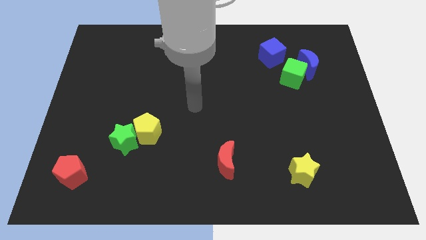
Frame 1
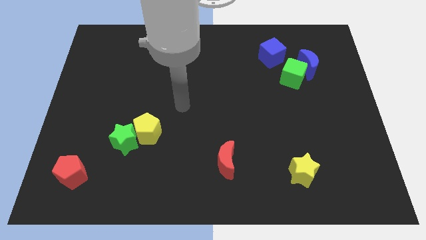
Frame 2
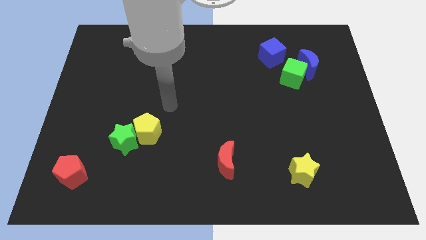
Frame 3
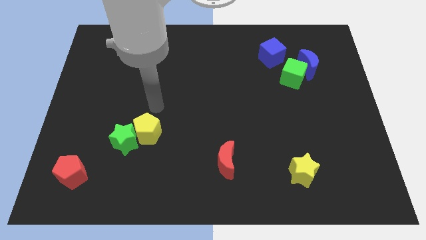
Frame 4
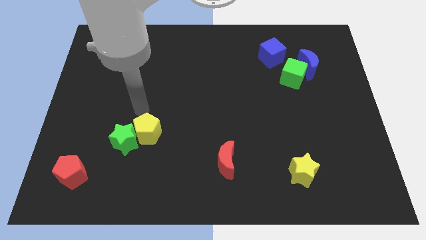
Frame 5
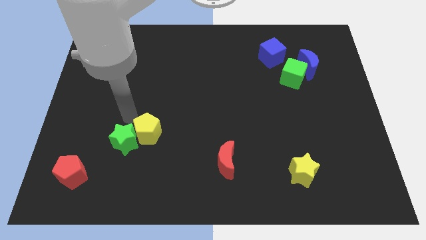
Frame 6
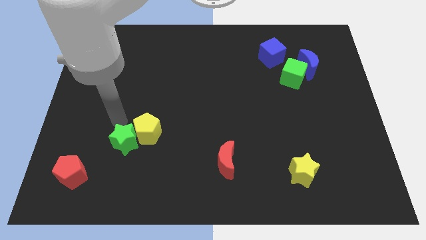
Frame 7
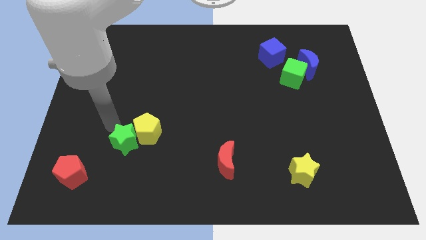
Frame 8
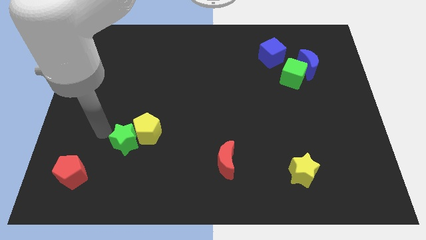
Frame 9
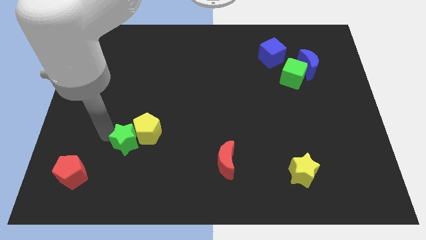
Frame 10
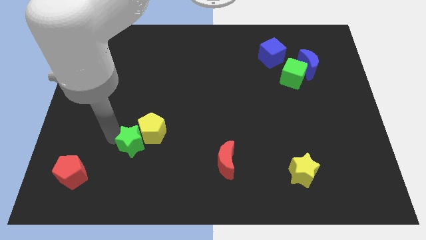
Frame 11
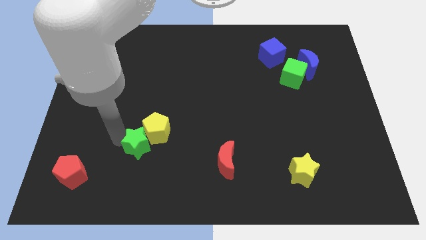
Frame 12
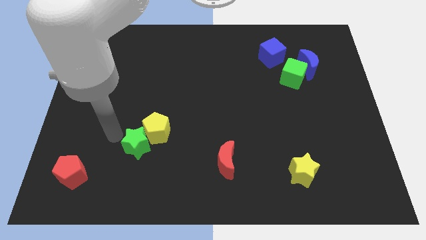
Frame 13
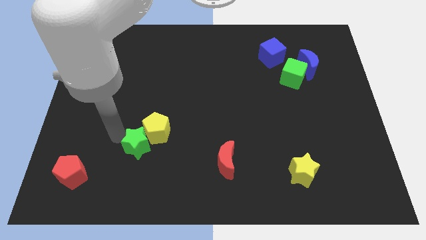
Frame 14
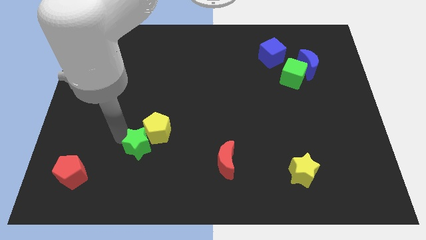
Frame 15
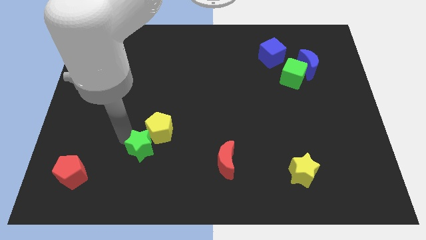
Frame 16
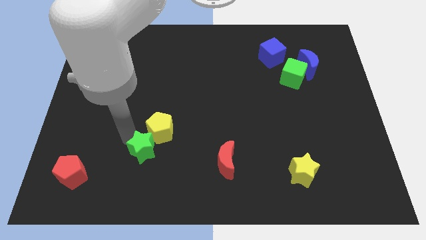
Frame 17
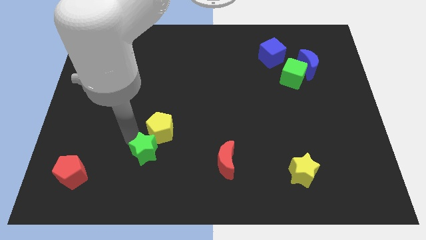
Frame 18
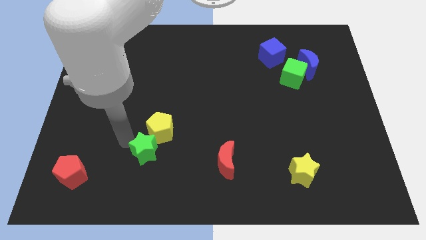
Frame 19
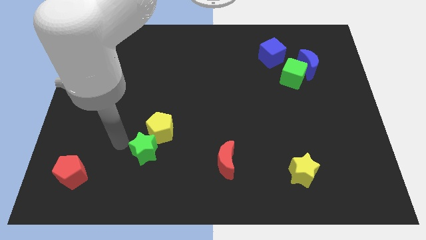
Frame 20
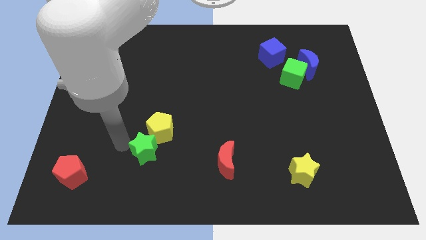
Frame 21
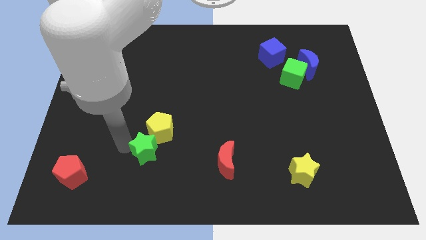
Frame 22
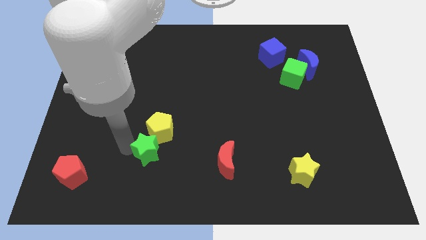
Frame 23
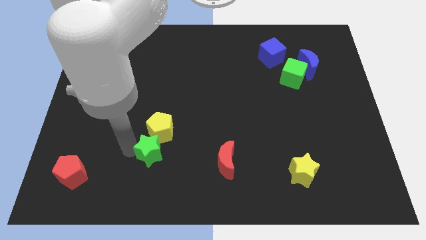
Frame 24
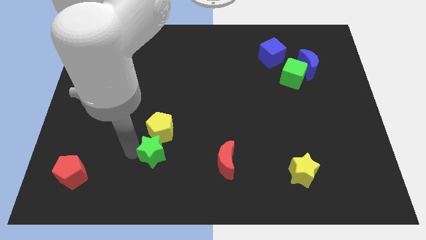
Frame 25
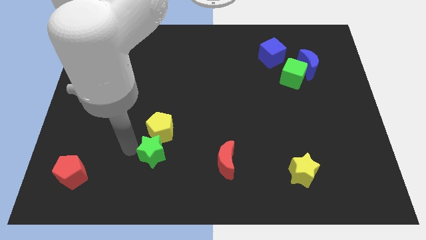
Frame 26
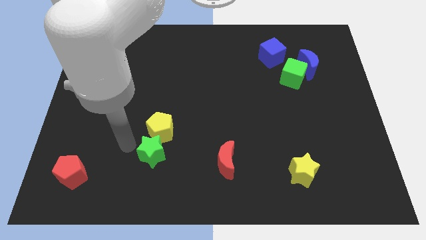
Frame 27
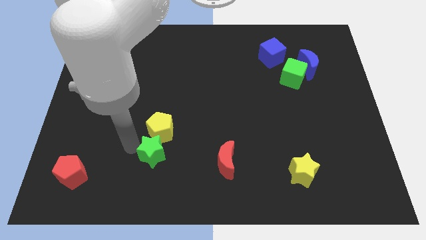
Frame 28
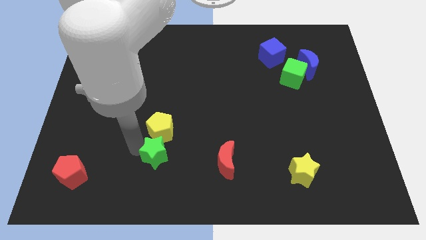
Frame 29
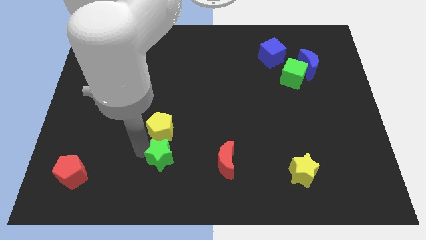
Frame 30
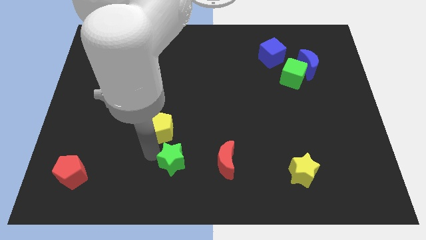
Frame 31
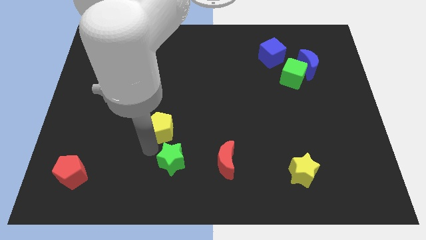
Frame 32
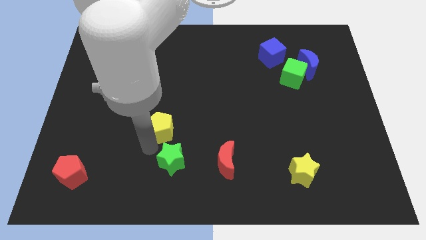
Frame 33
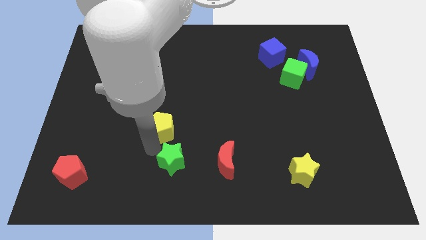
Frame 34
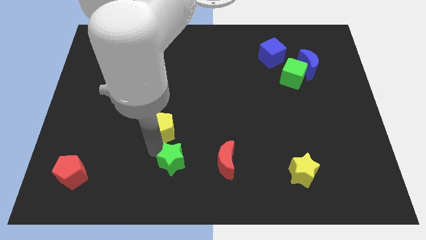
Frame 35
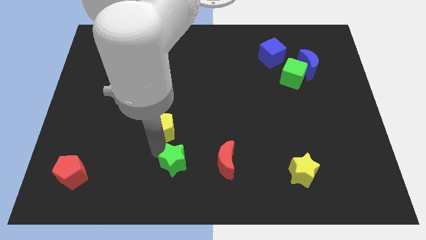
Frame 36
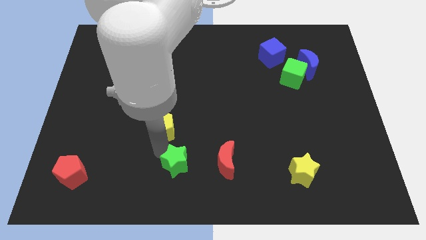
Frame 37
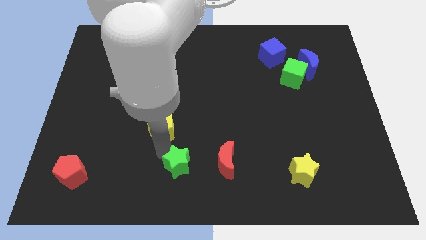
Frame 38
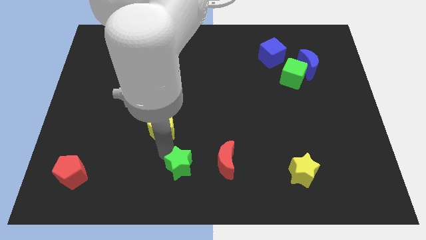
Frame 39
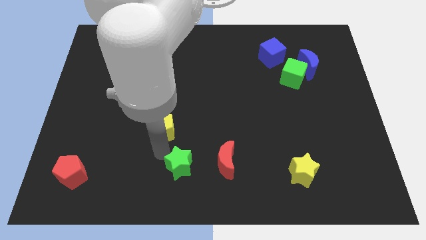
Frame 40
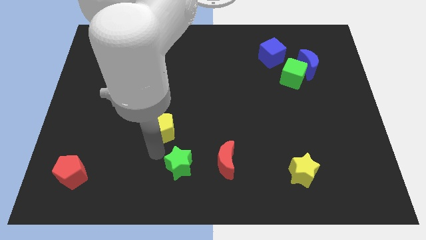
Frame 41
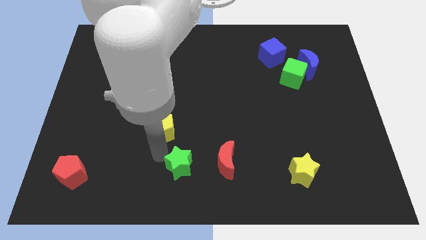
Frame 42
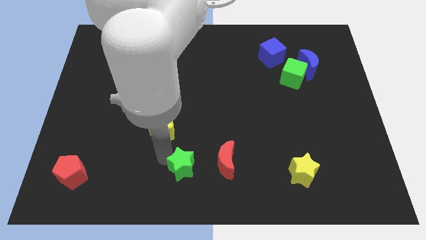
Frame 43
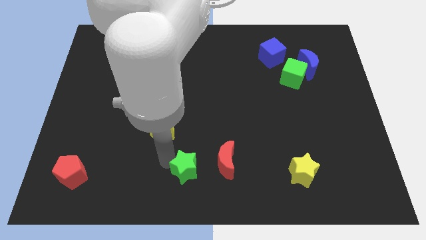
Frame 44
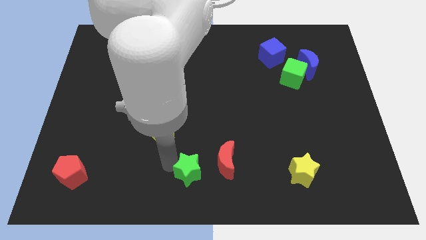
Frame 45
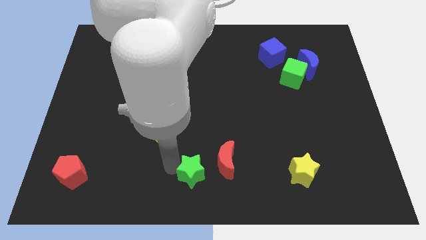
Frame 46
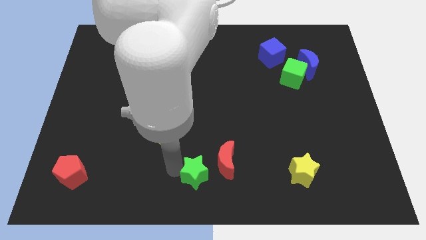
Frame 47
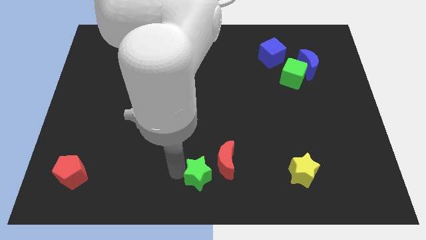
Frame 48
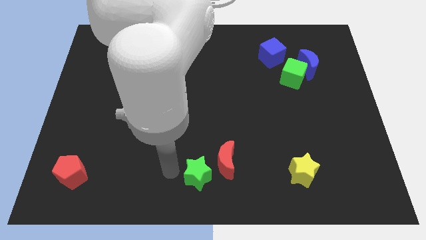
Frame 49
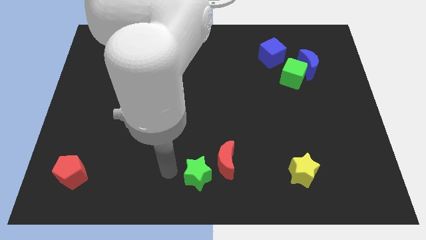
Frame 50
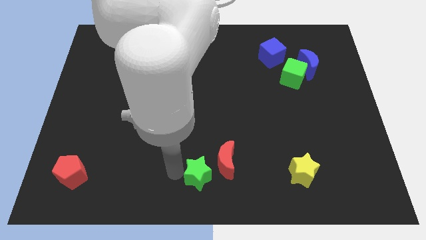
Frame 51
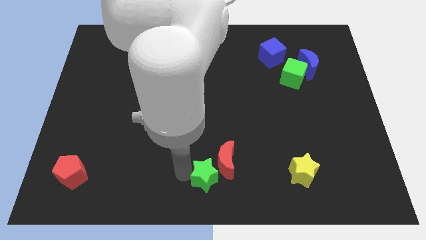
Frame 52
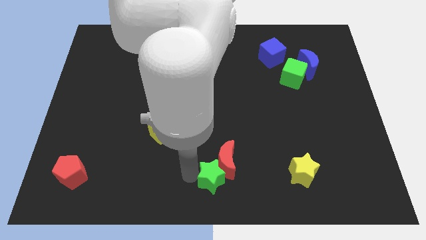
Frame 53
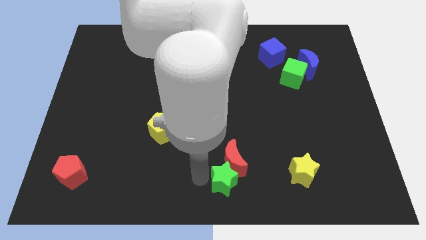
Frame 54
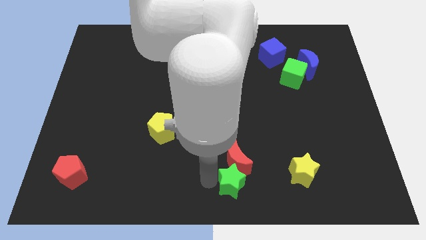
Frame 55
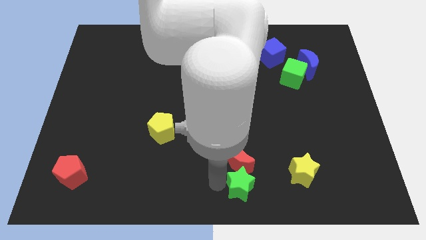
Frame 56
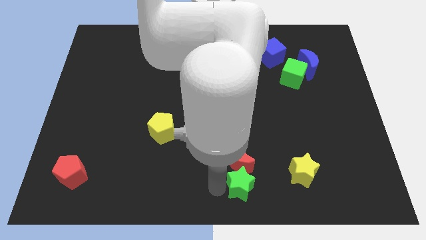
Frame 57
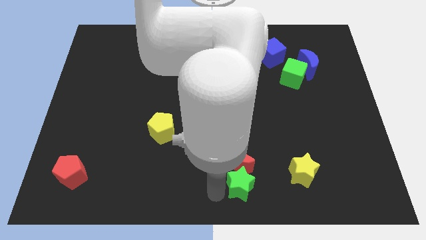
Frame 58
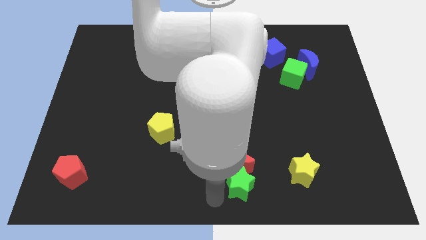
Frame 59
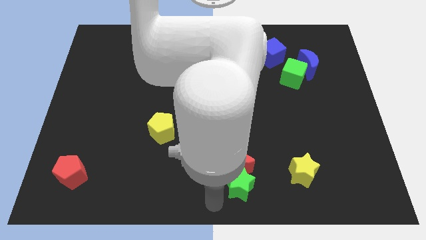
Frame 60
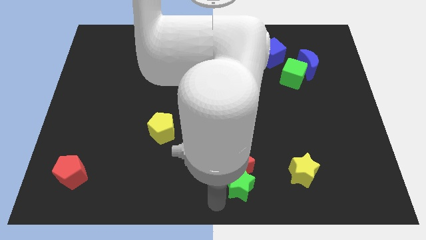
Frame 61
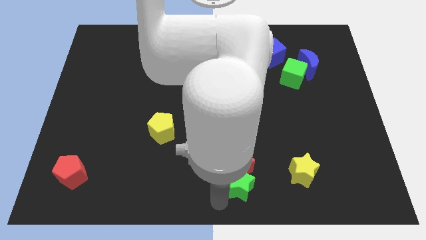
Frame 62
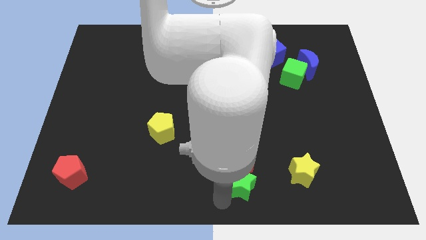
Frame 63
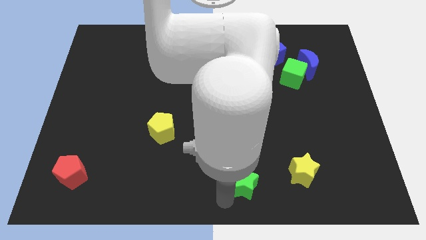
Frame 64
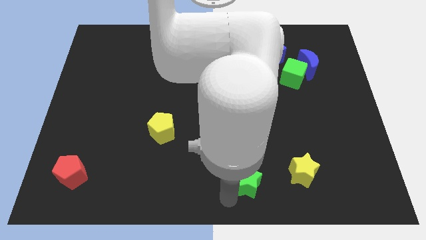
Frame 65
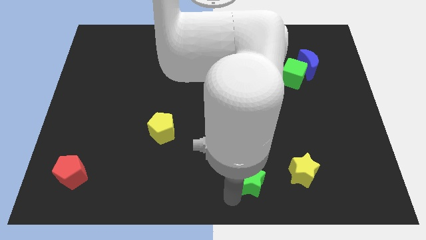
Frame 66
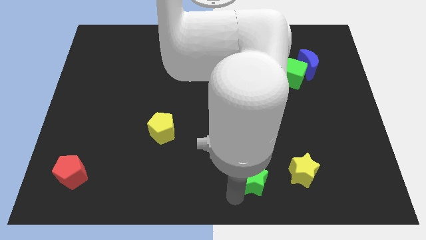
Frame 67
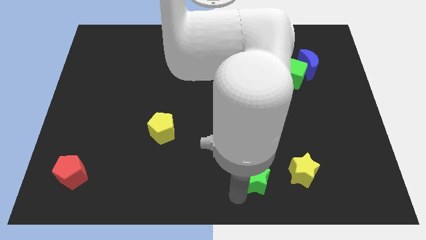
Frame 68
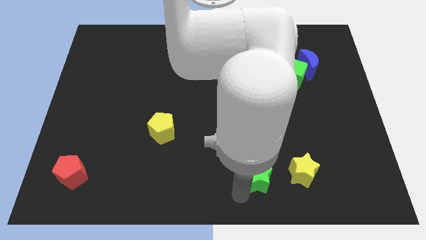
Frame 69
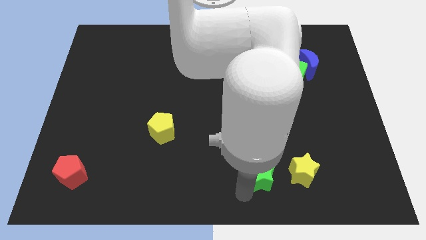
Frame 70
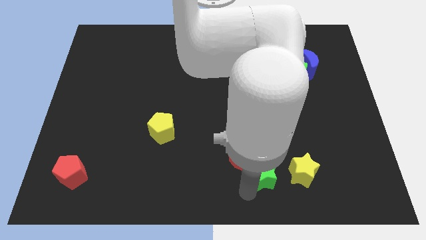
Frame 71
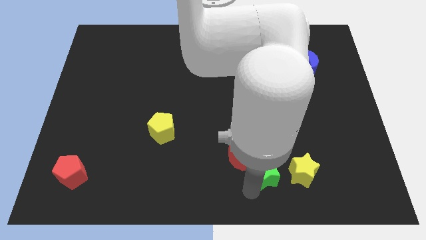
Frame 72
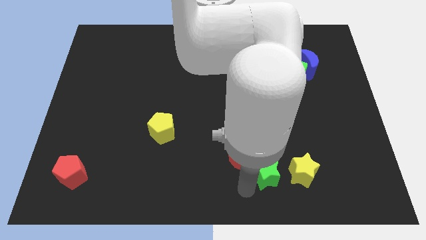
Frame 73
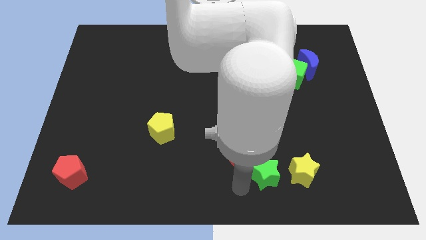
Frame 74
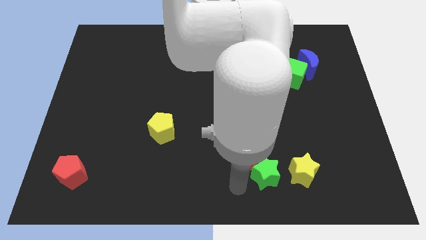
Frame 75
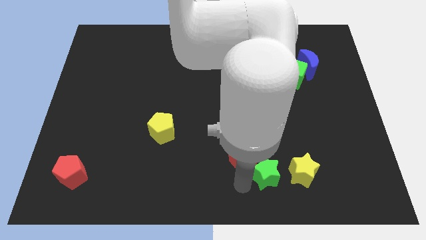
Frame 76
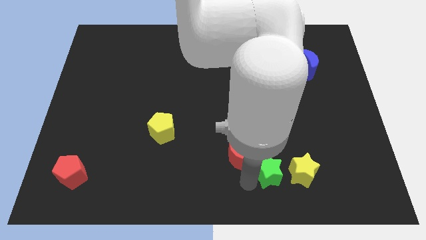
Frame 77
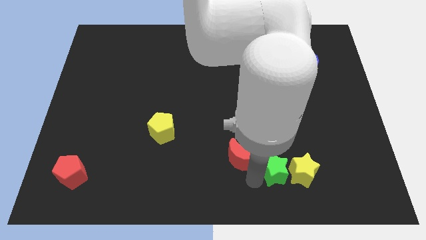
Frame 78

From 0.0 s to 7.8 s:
push the green star towards the yellow star
